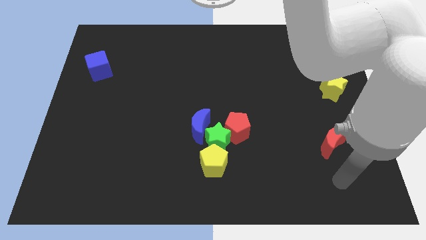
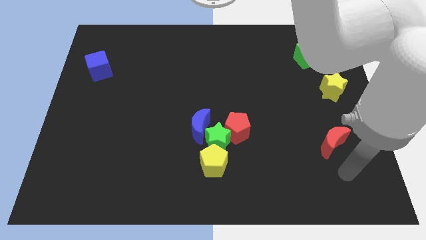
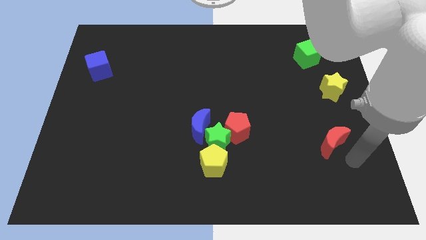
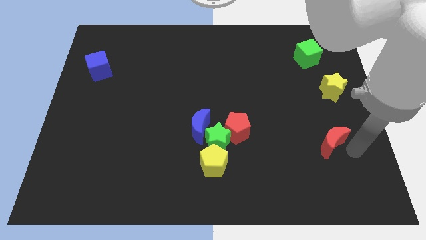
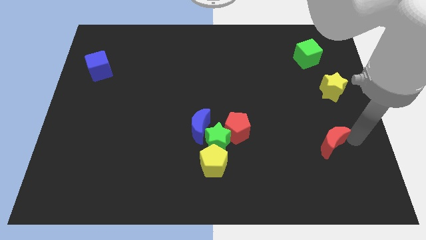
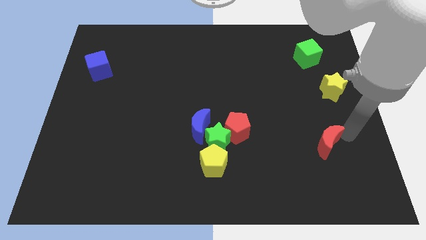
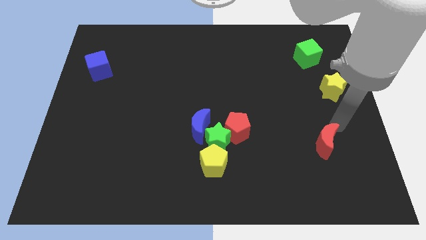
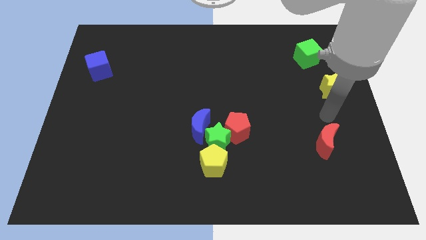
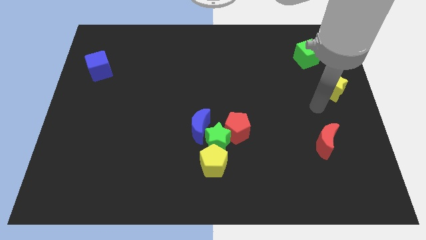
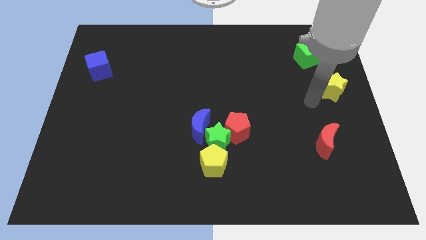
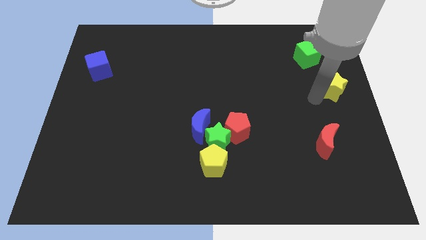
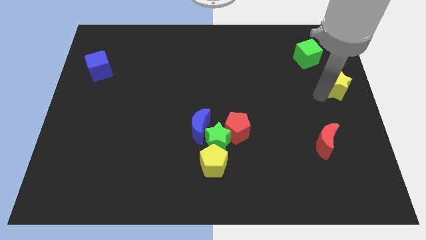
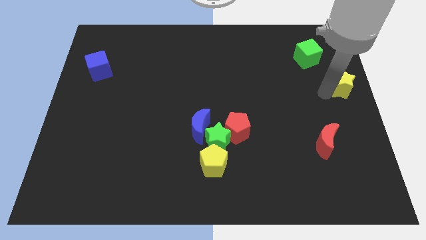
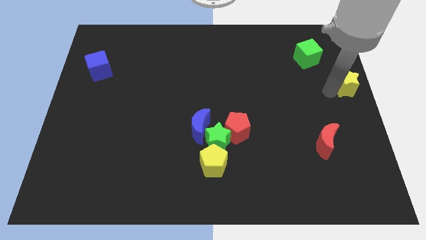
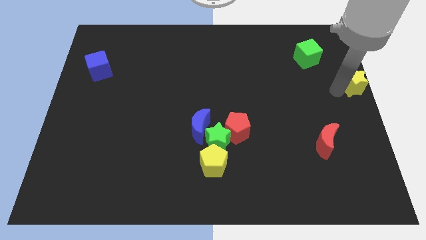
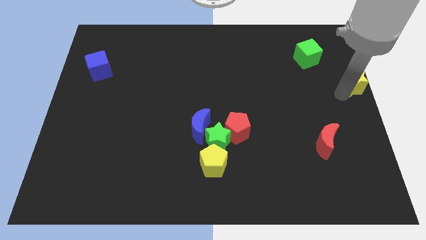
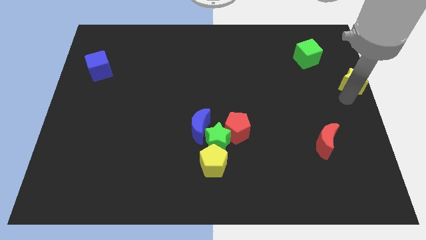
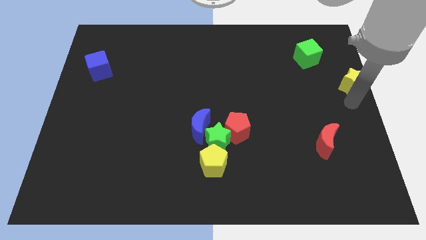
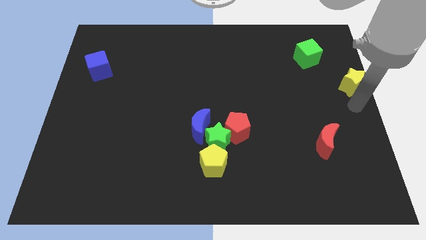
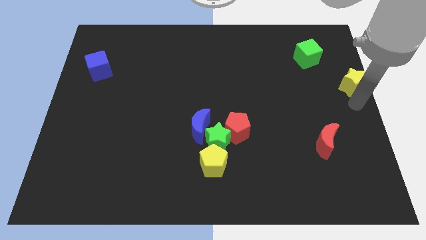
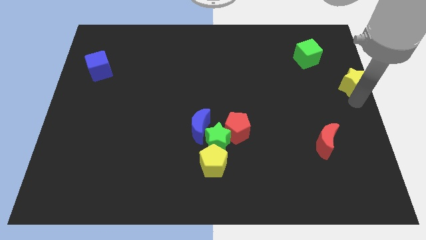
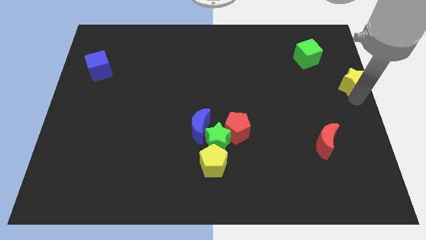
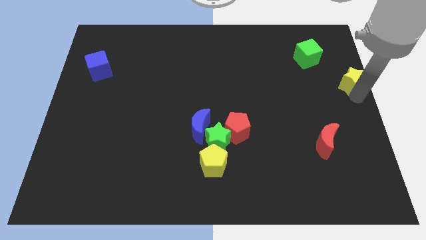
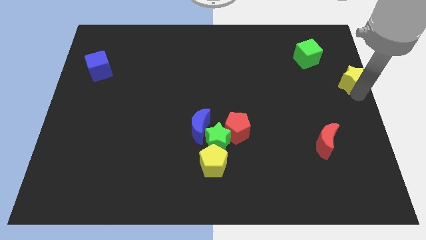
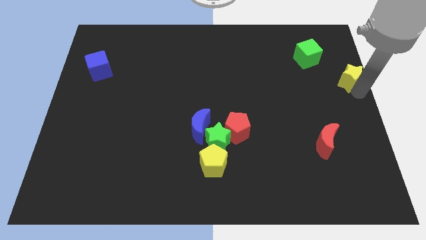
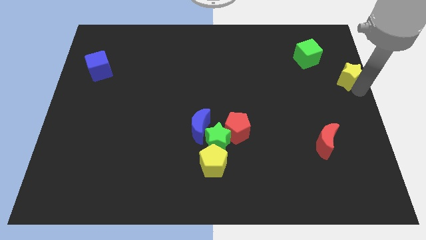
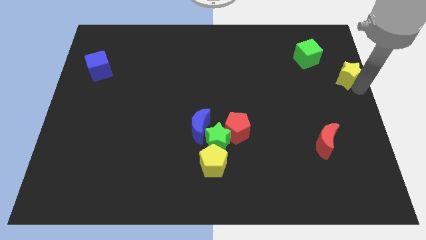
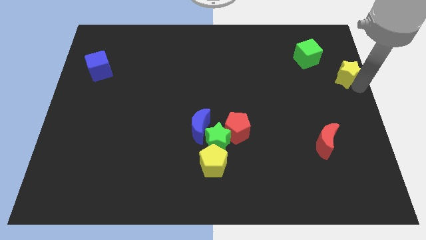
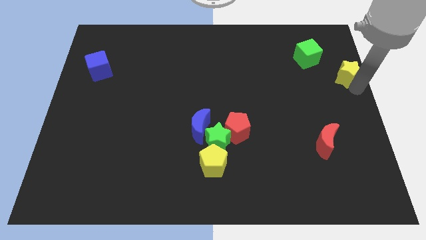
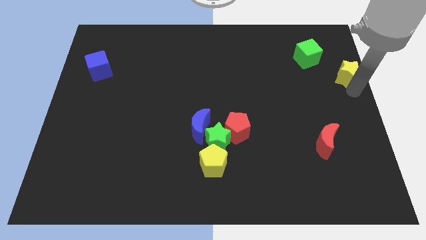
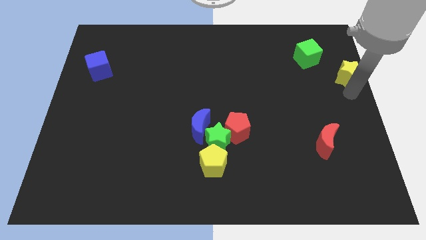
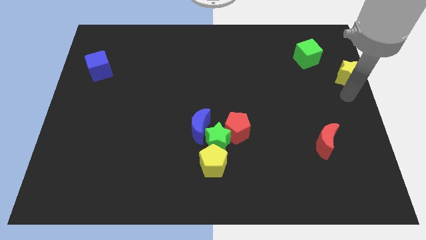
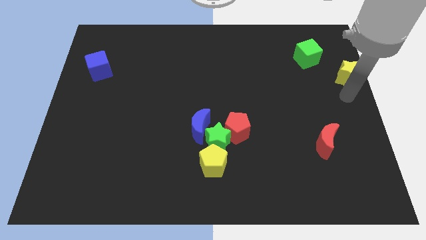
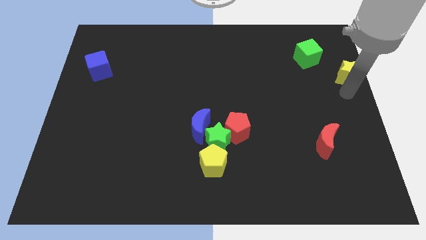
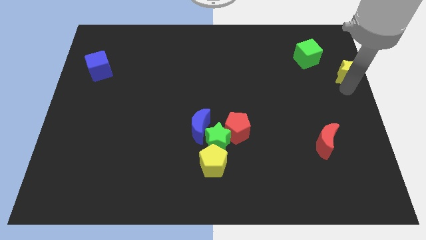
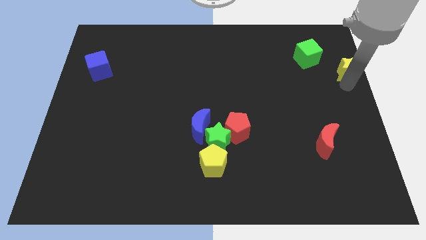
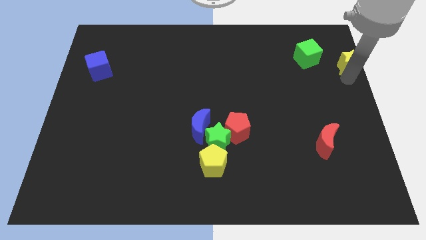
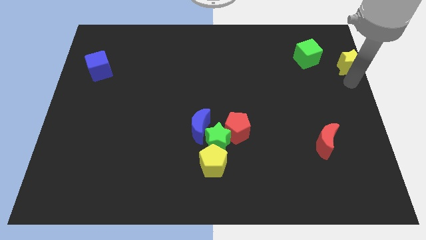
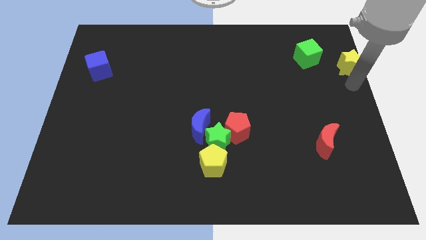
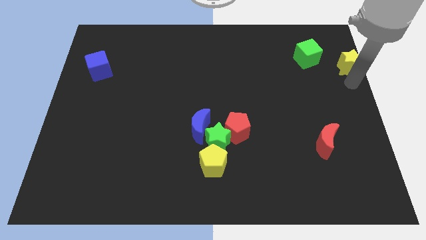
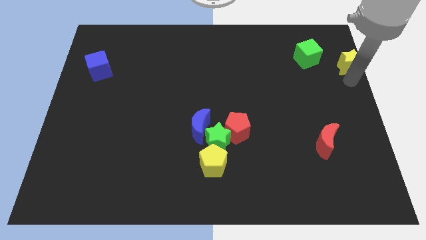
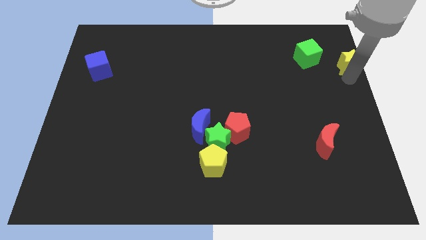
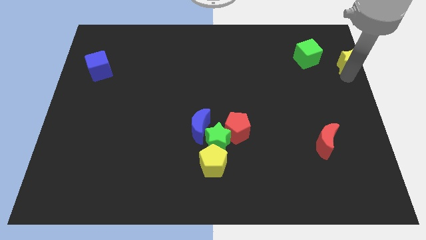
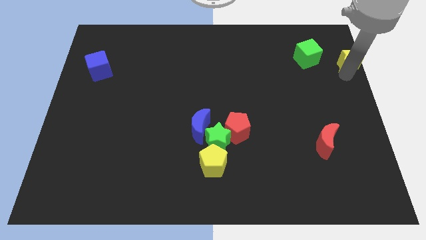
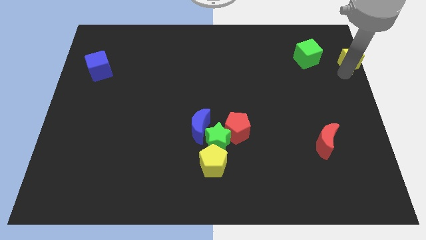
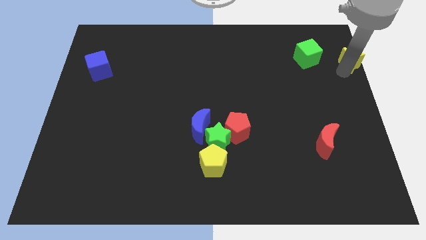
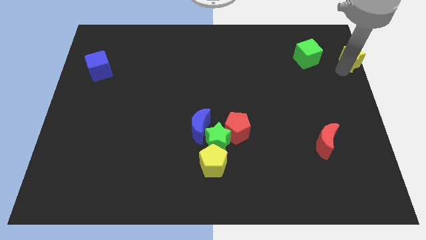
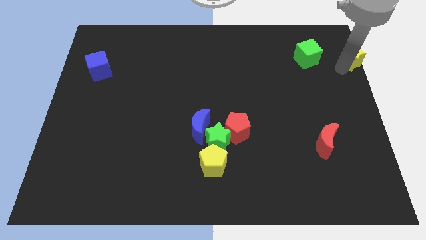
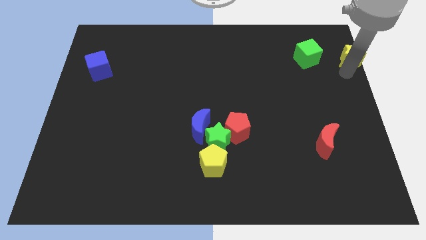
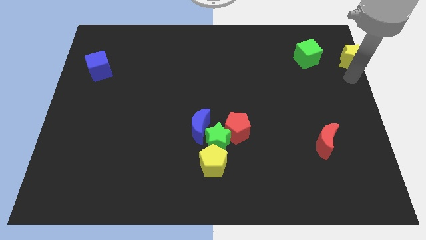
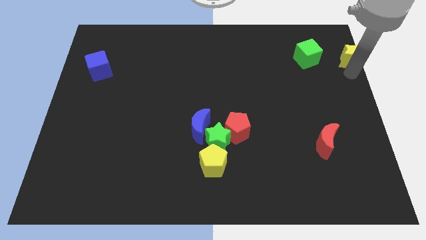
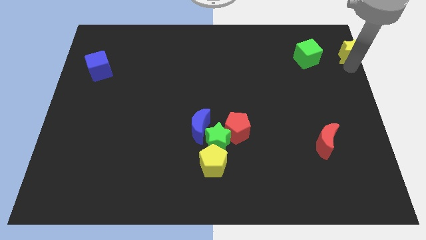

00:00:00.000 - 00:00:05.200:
put the yellow star to the top right corner
